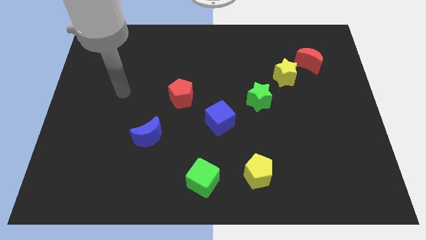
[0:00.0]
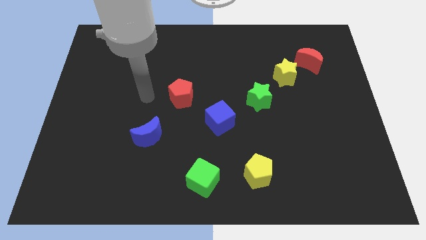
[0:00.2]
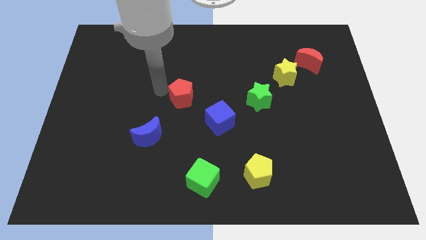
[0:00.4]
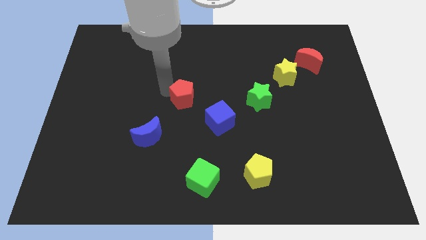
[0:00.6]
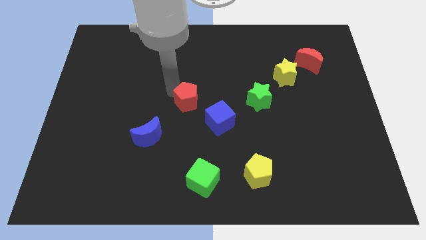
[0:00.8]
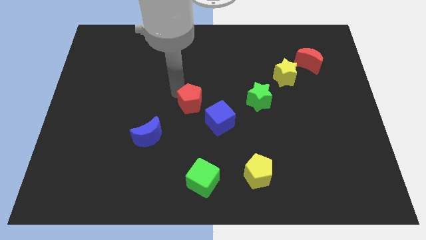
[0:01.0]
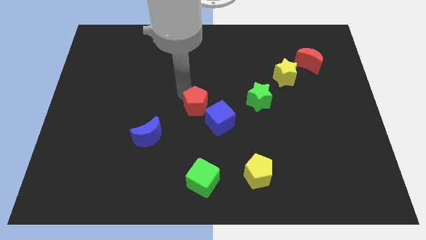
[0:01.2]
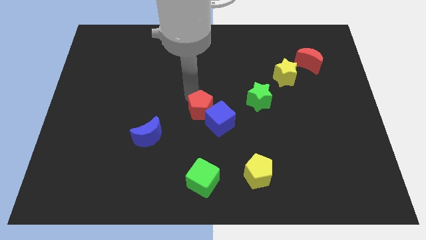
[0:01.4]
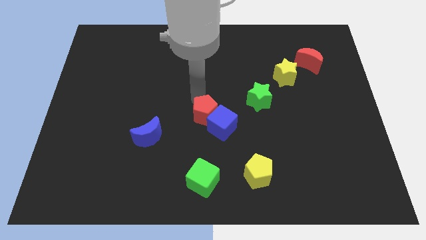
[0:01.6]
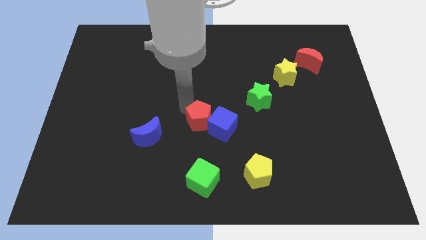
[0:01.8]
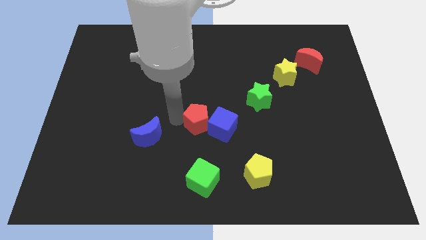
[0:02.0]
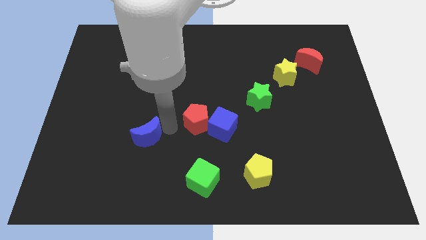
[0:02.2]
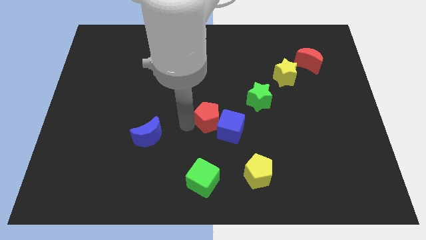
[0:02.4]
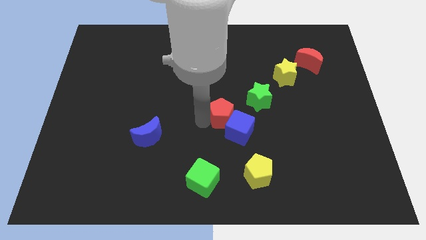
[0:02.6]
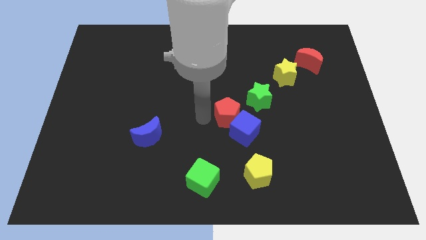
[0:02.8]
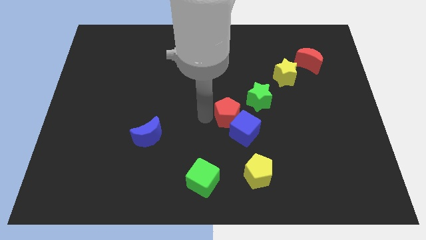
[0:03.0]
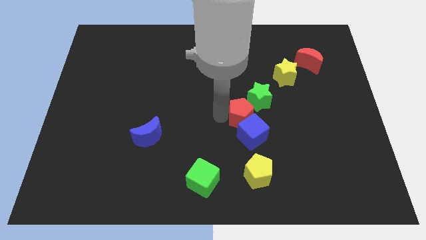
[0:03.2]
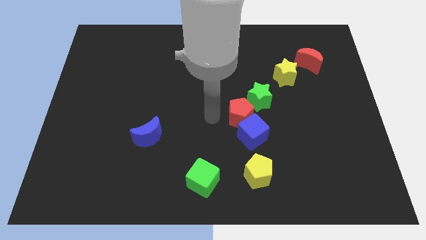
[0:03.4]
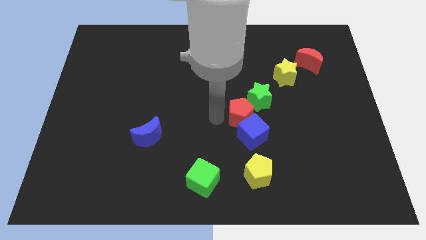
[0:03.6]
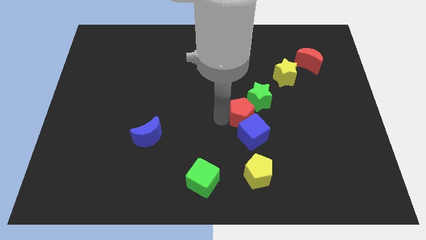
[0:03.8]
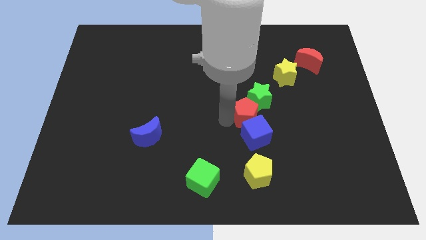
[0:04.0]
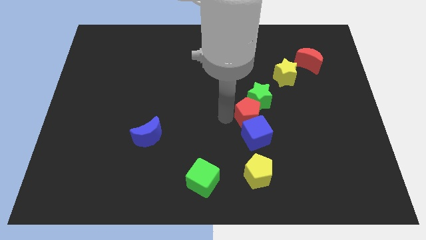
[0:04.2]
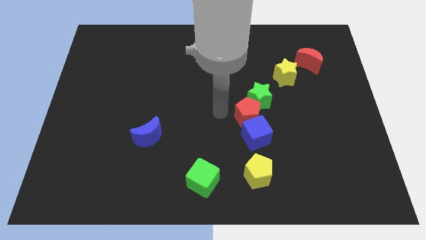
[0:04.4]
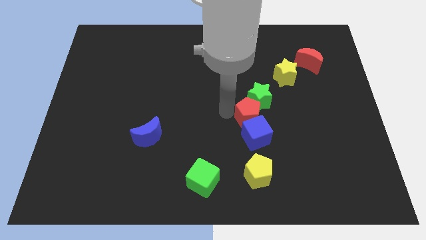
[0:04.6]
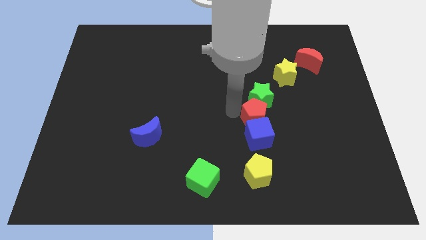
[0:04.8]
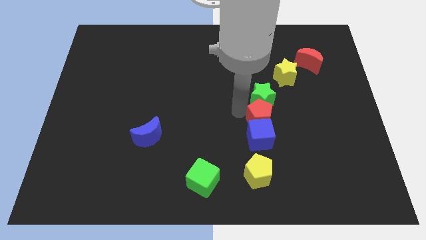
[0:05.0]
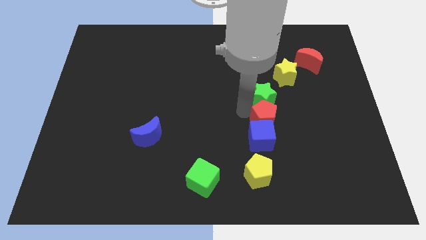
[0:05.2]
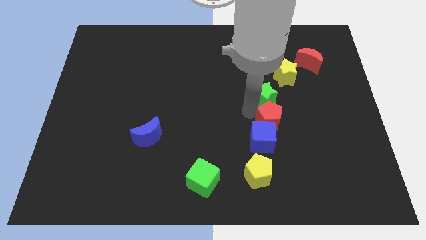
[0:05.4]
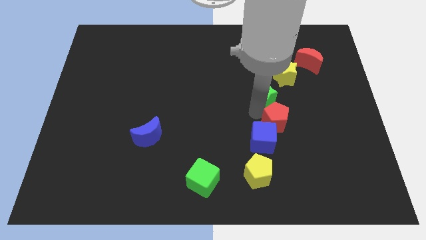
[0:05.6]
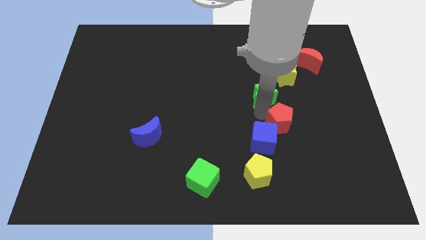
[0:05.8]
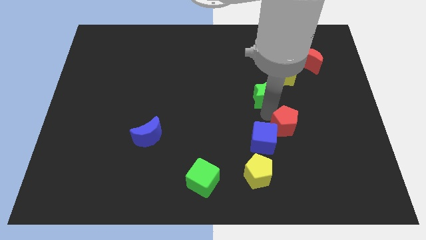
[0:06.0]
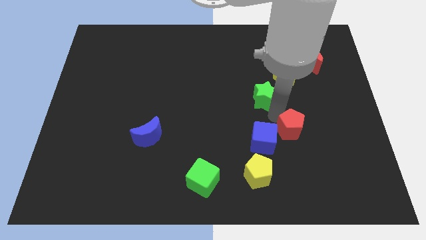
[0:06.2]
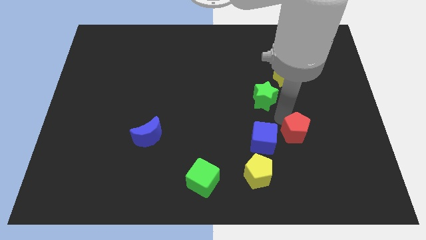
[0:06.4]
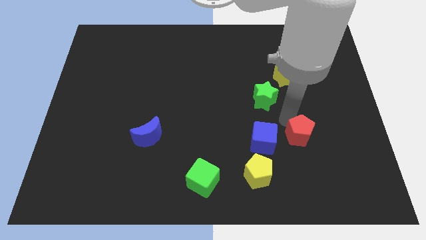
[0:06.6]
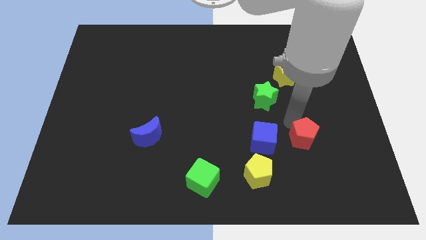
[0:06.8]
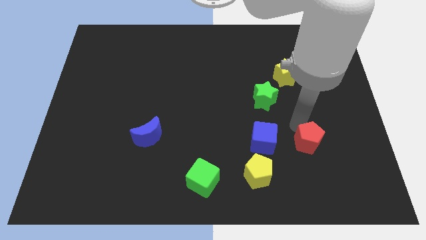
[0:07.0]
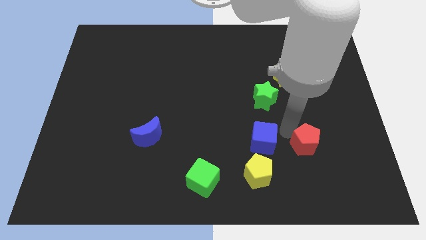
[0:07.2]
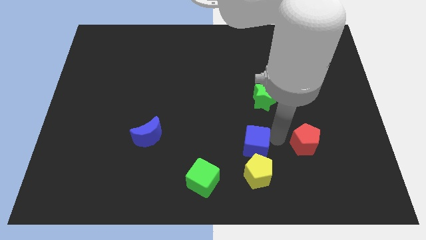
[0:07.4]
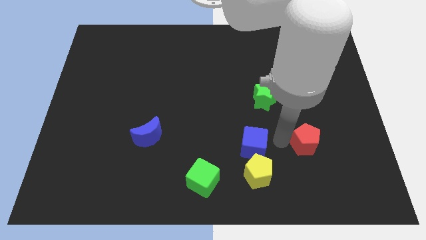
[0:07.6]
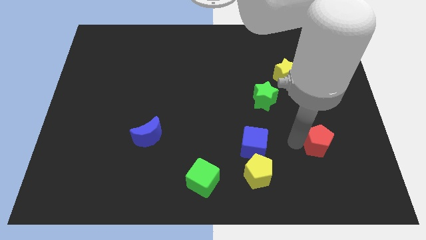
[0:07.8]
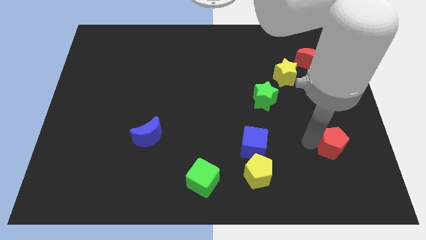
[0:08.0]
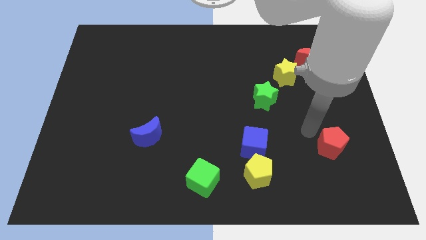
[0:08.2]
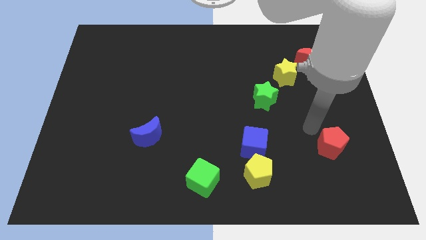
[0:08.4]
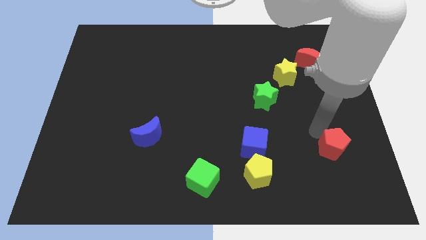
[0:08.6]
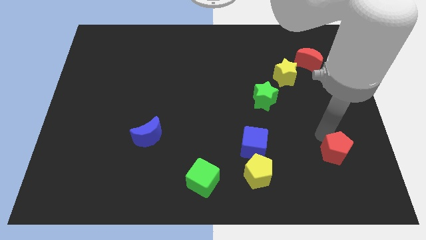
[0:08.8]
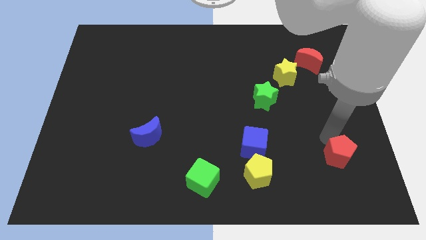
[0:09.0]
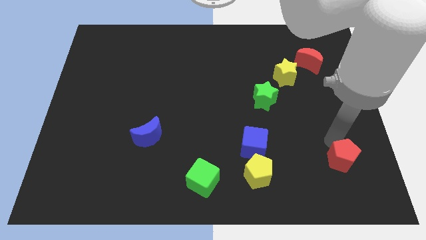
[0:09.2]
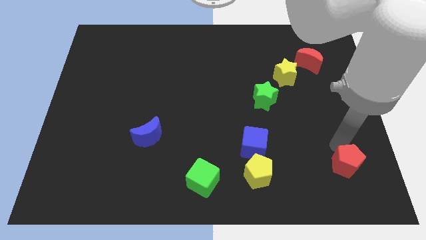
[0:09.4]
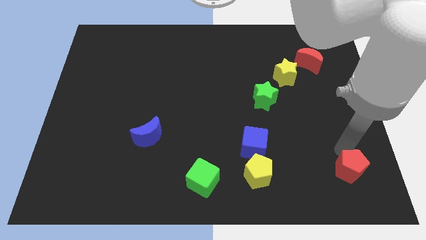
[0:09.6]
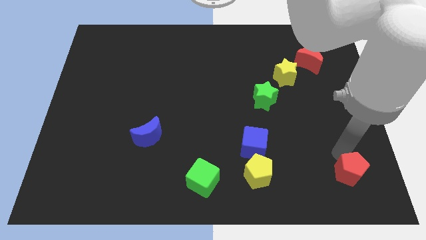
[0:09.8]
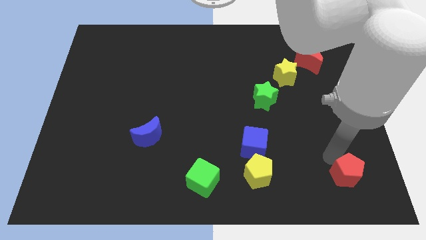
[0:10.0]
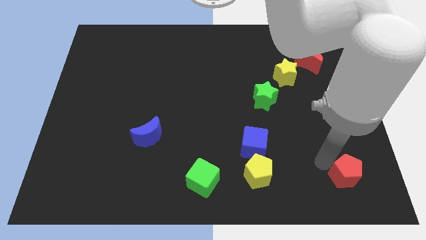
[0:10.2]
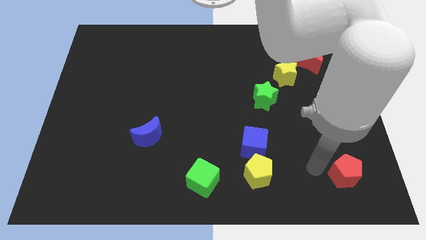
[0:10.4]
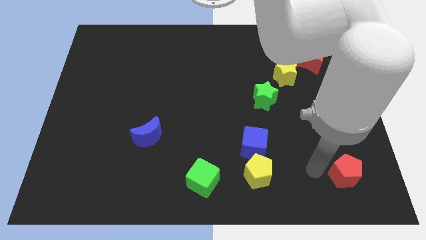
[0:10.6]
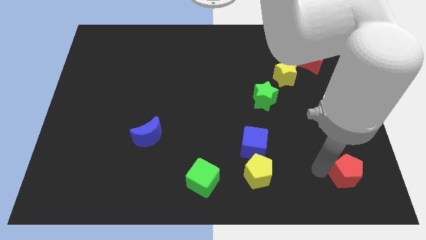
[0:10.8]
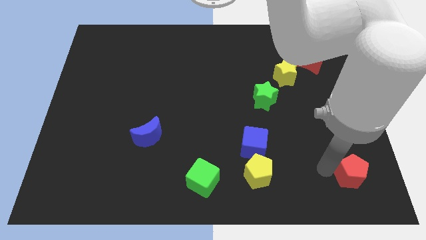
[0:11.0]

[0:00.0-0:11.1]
slide the red pentagon to the bottom right corner

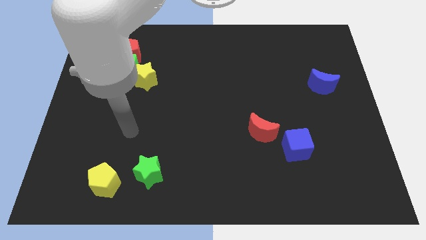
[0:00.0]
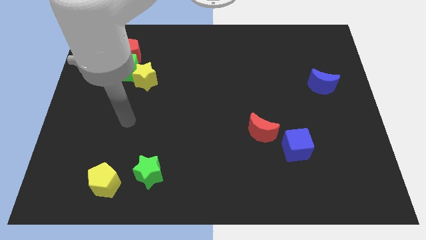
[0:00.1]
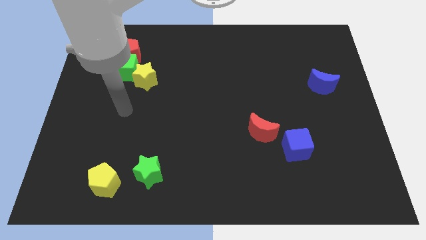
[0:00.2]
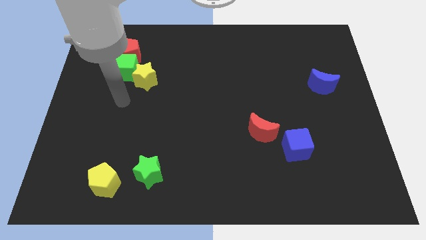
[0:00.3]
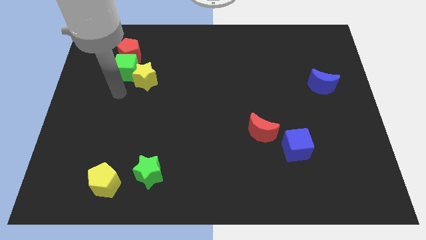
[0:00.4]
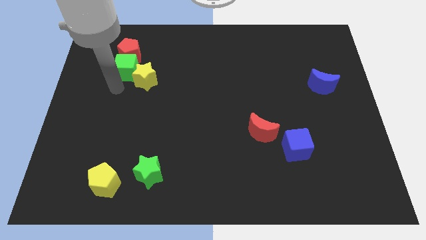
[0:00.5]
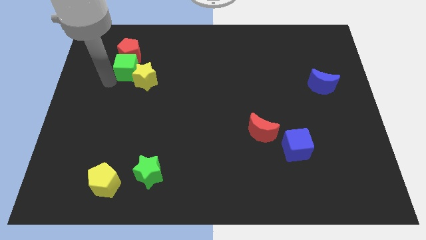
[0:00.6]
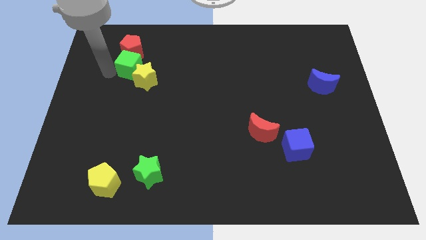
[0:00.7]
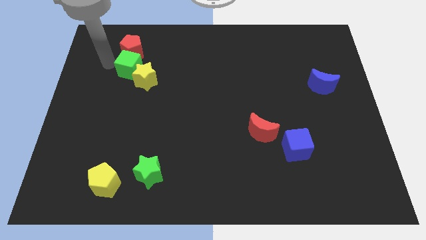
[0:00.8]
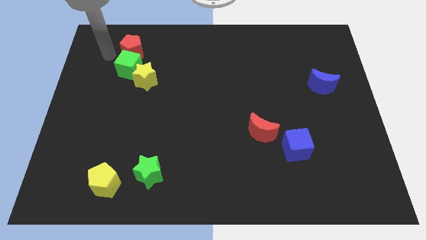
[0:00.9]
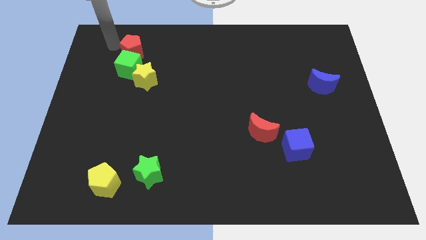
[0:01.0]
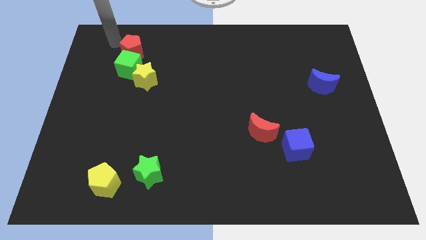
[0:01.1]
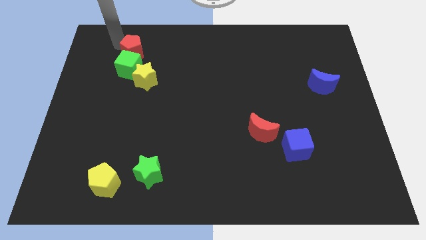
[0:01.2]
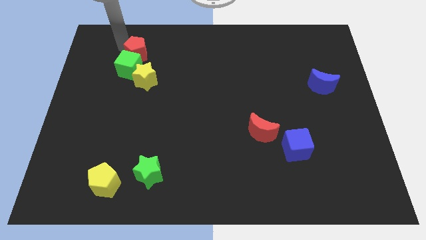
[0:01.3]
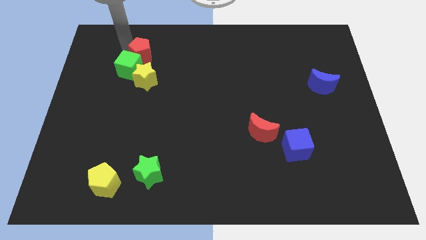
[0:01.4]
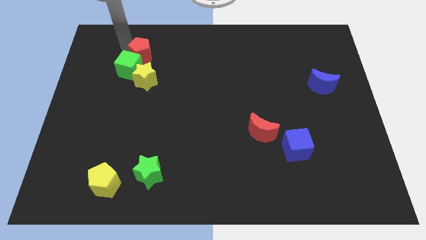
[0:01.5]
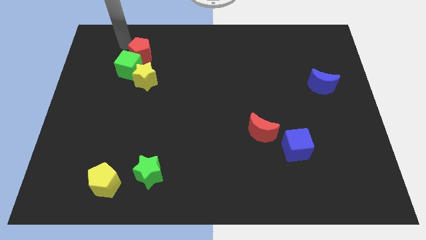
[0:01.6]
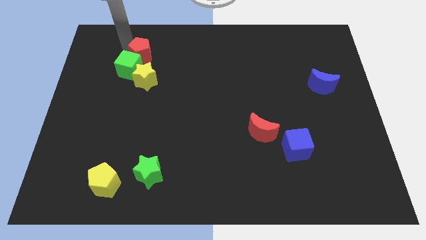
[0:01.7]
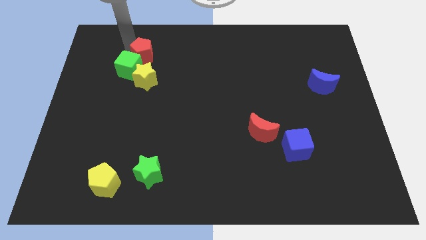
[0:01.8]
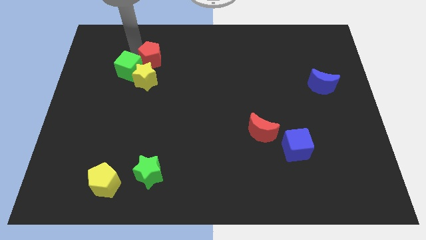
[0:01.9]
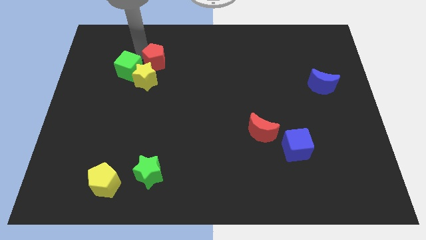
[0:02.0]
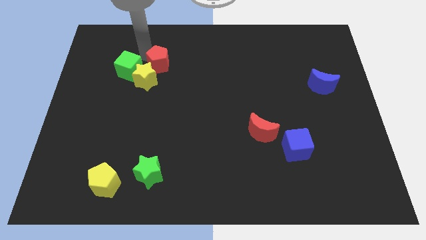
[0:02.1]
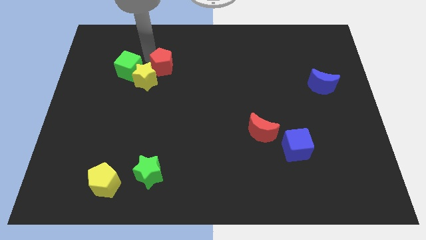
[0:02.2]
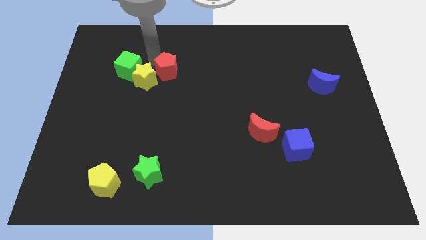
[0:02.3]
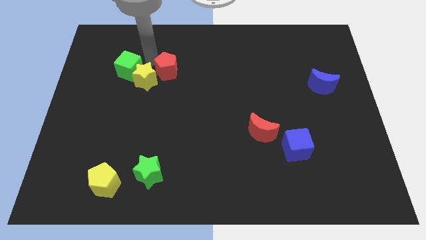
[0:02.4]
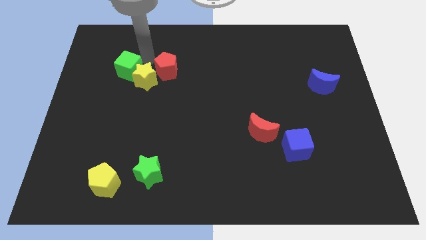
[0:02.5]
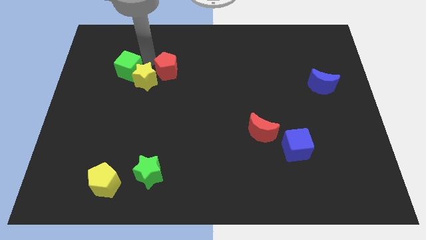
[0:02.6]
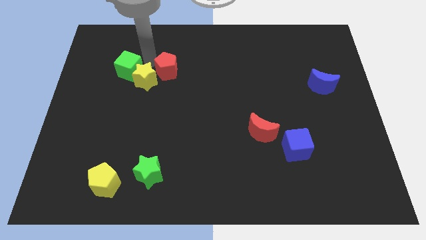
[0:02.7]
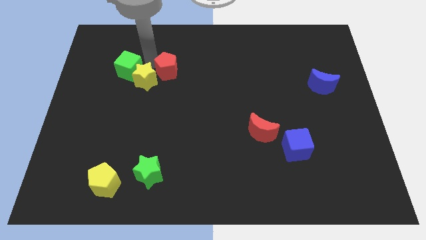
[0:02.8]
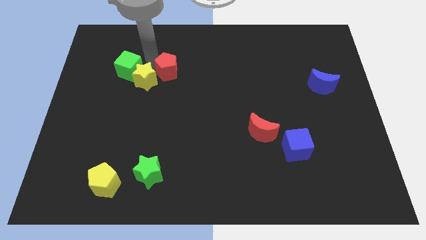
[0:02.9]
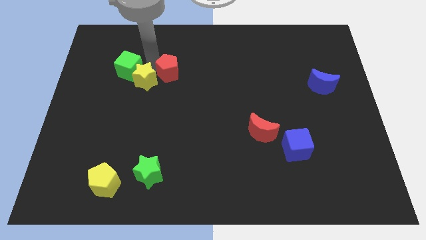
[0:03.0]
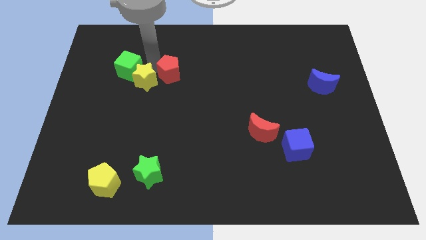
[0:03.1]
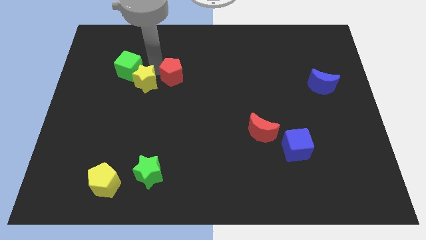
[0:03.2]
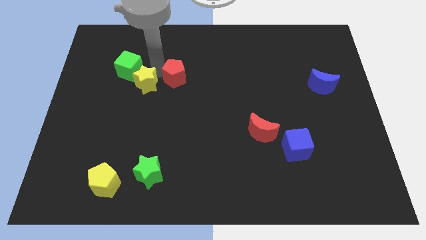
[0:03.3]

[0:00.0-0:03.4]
push the red pentagon to the middle
